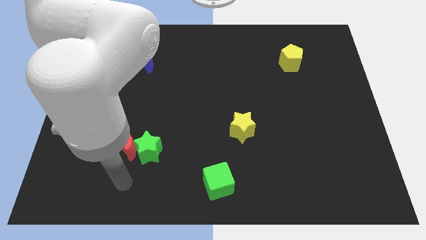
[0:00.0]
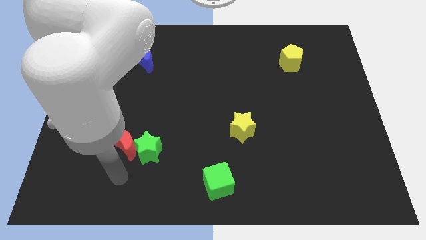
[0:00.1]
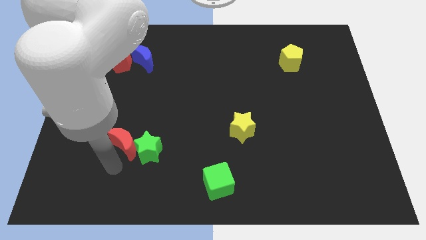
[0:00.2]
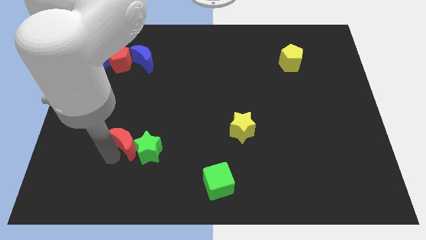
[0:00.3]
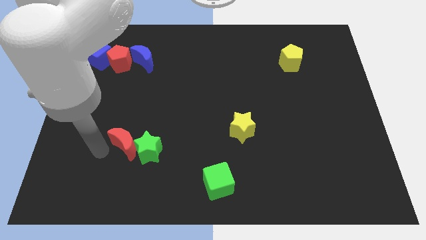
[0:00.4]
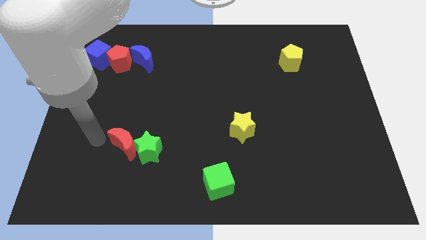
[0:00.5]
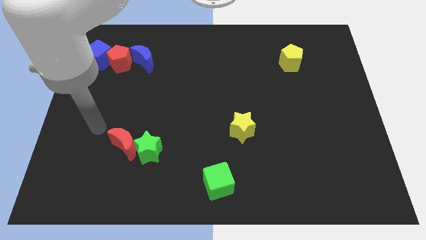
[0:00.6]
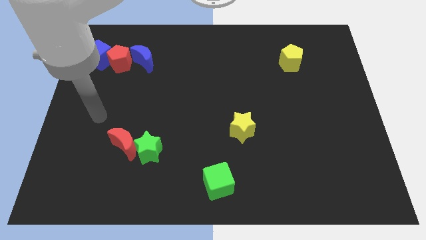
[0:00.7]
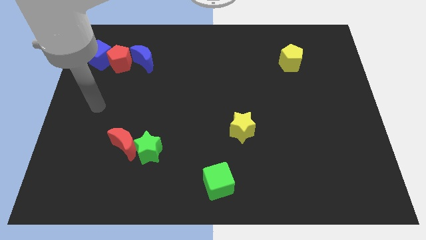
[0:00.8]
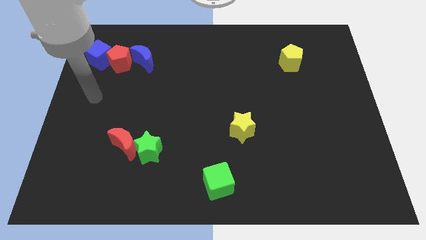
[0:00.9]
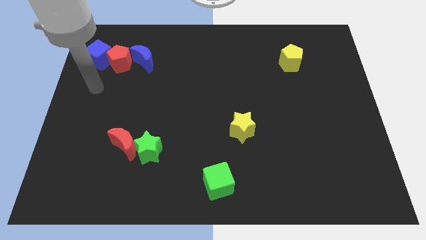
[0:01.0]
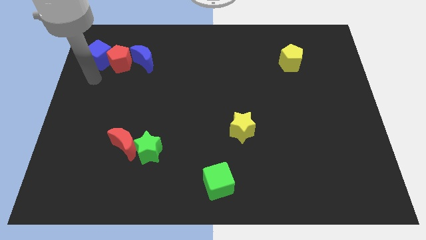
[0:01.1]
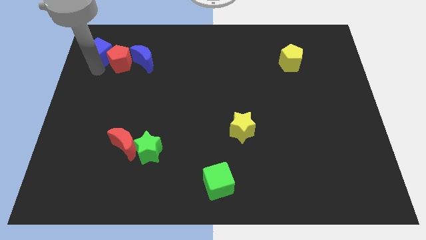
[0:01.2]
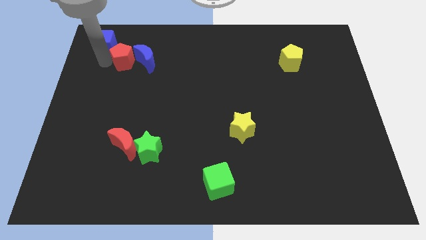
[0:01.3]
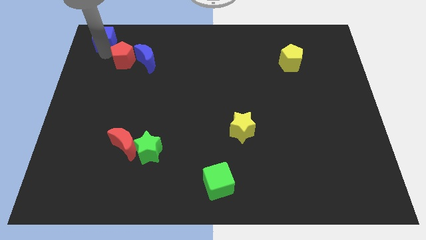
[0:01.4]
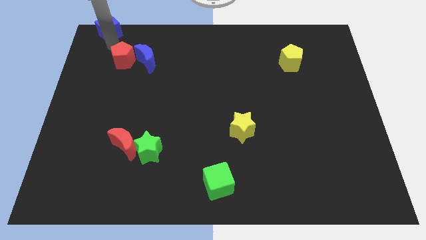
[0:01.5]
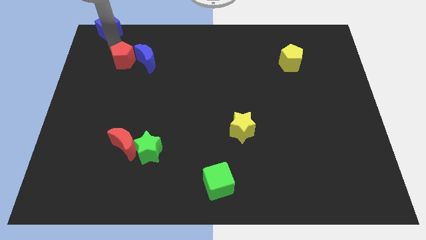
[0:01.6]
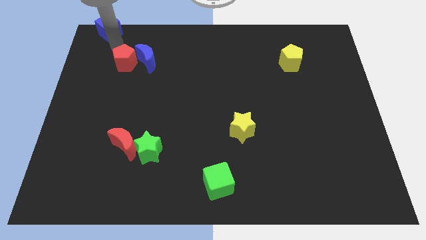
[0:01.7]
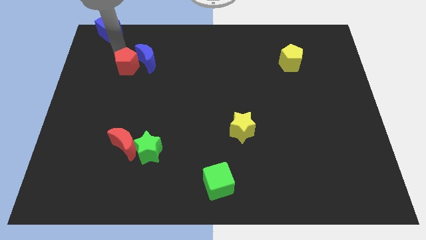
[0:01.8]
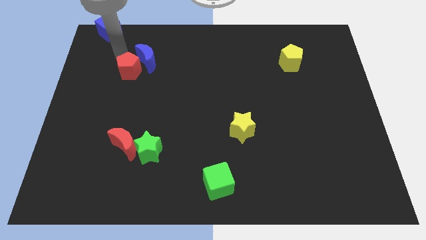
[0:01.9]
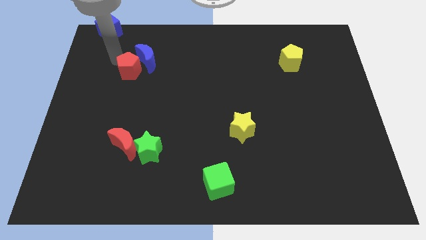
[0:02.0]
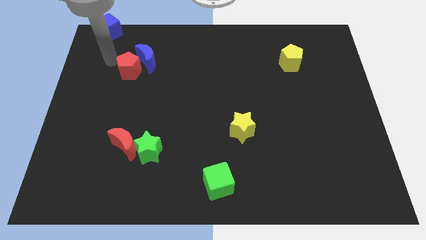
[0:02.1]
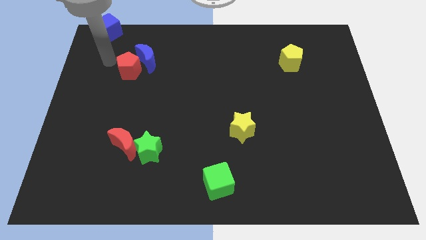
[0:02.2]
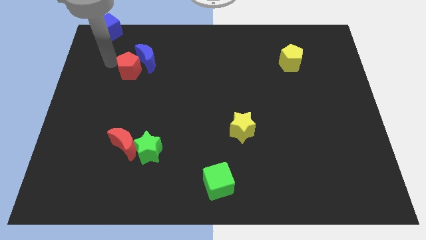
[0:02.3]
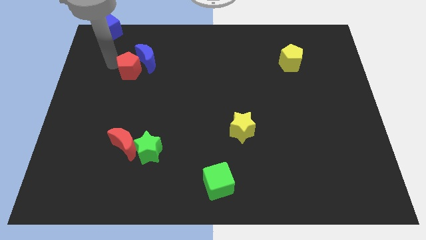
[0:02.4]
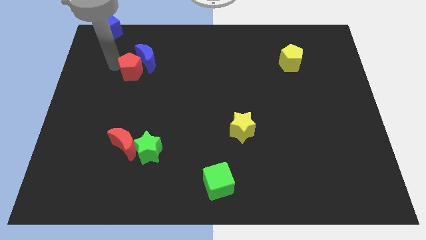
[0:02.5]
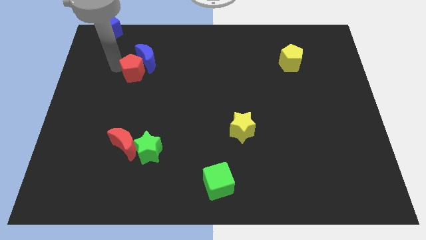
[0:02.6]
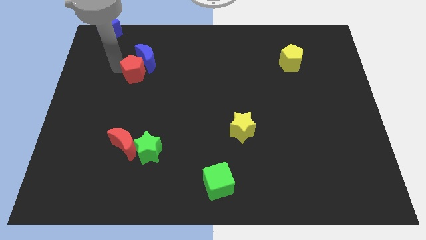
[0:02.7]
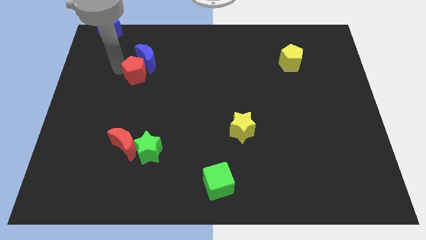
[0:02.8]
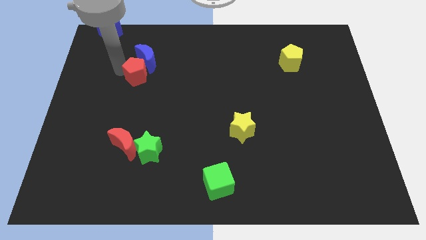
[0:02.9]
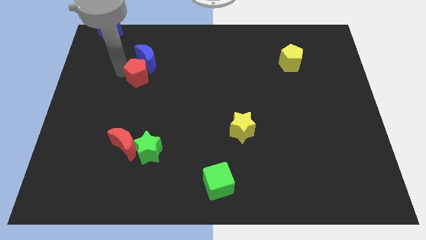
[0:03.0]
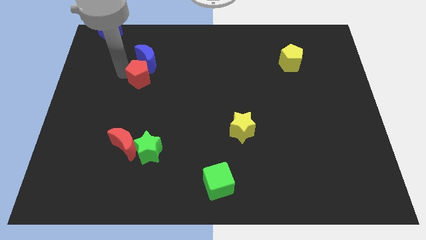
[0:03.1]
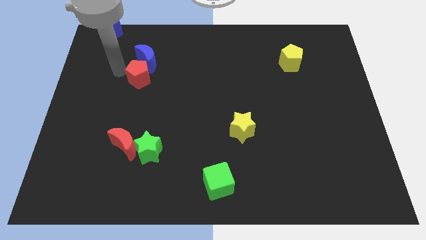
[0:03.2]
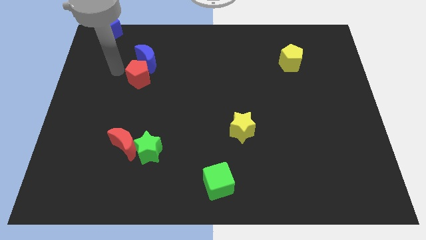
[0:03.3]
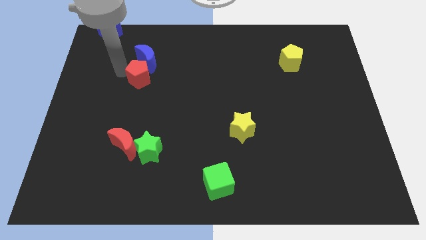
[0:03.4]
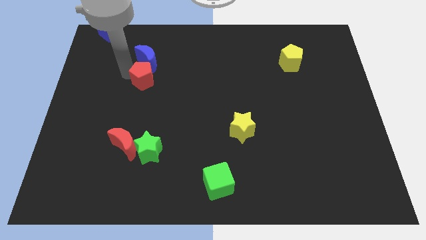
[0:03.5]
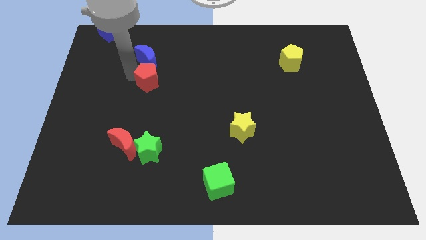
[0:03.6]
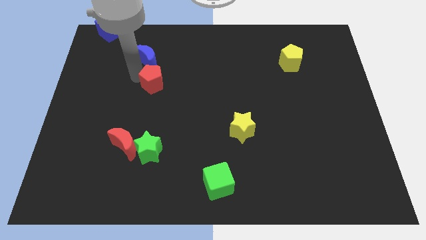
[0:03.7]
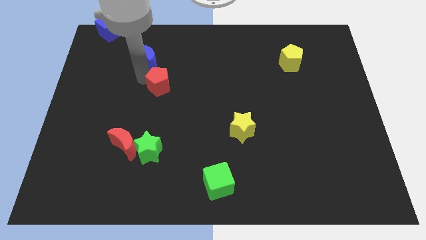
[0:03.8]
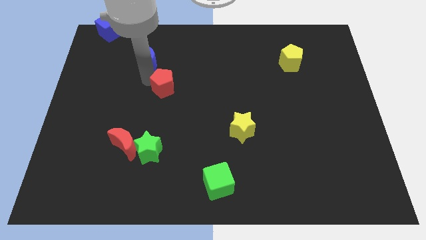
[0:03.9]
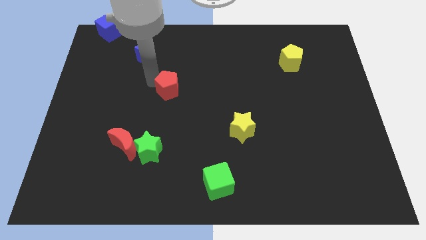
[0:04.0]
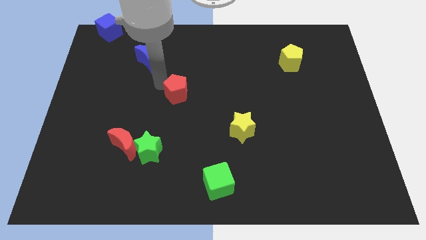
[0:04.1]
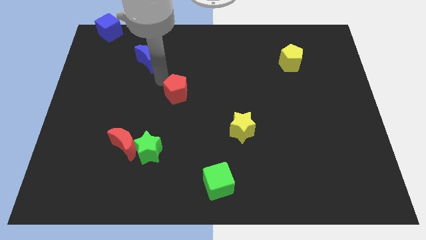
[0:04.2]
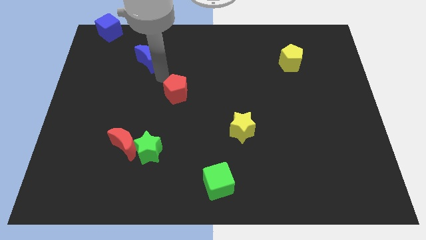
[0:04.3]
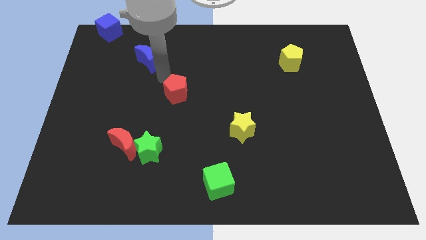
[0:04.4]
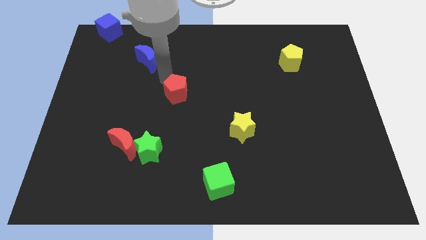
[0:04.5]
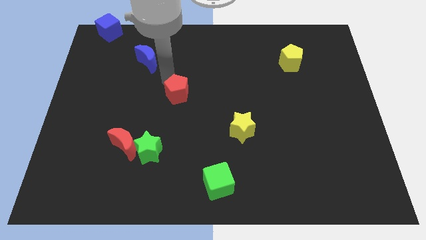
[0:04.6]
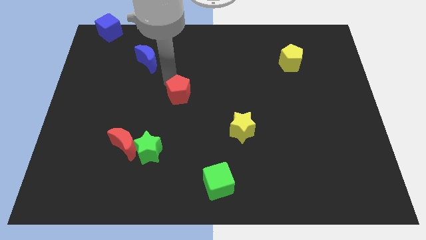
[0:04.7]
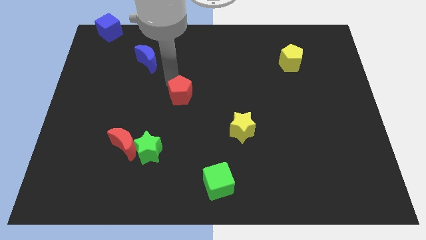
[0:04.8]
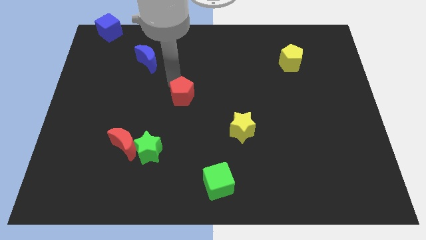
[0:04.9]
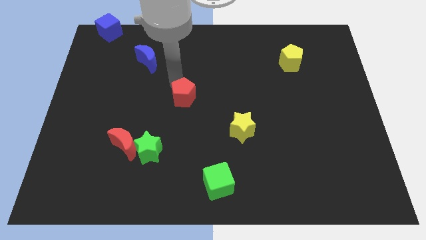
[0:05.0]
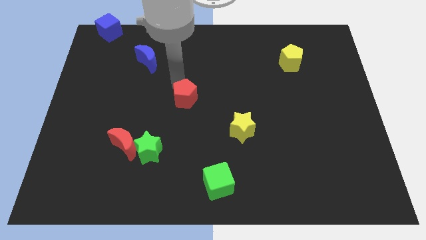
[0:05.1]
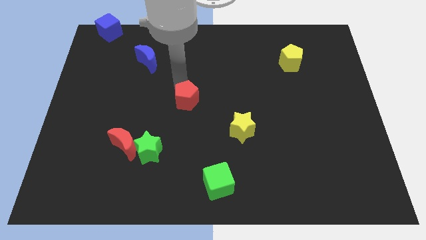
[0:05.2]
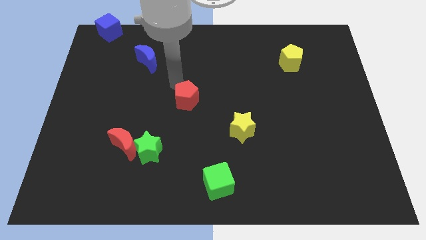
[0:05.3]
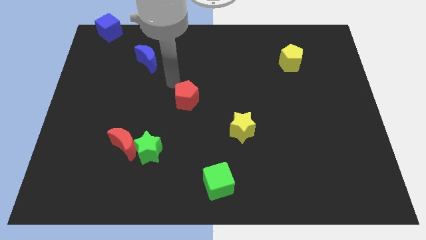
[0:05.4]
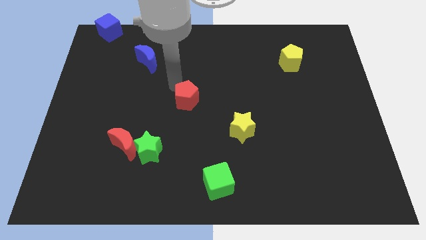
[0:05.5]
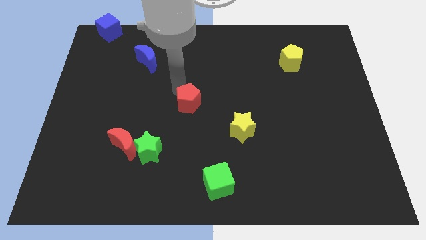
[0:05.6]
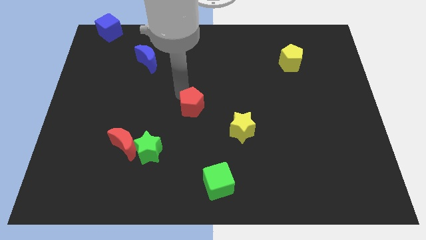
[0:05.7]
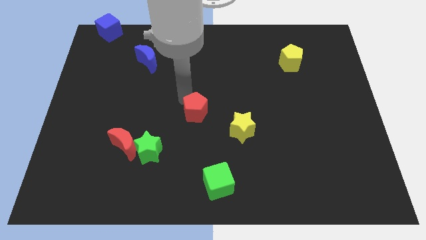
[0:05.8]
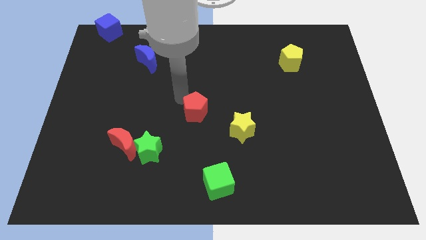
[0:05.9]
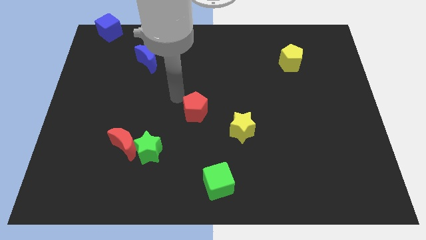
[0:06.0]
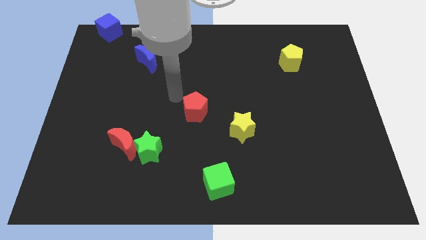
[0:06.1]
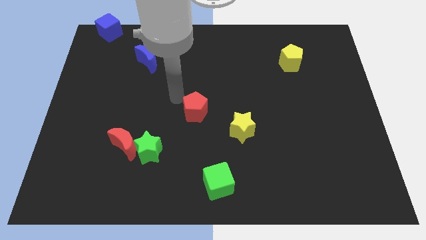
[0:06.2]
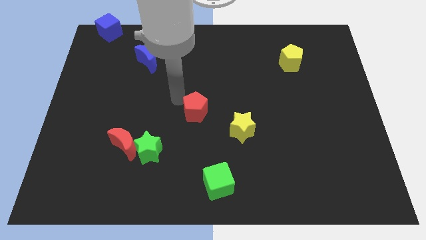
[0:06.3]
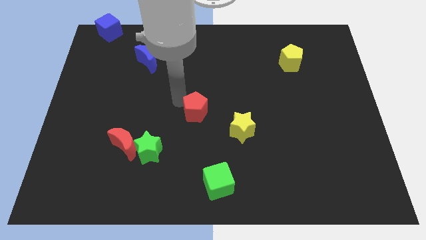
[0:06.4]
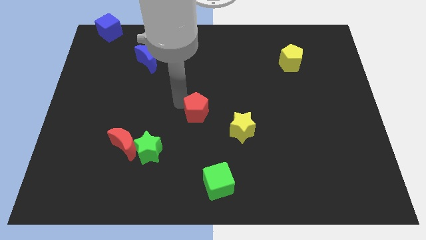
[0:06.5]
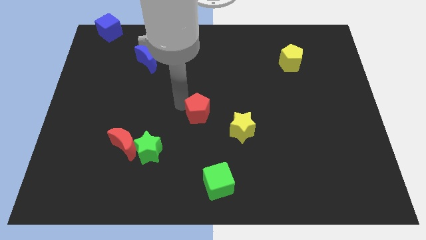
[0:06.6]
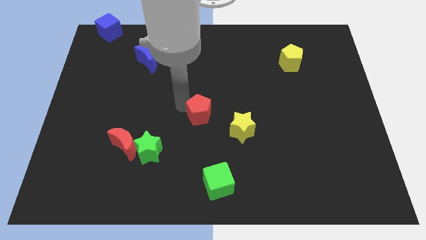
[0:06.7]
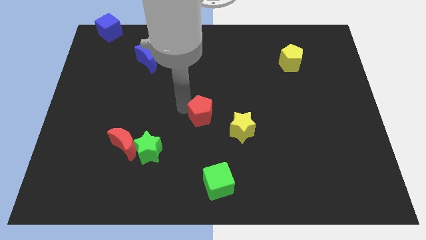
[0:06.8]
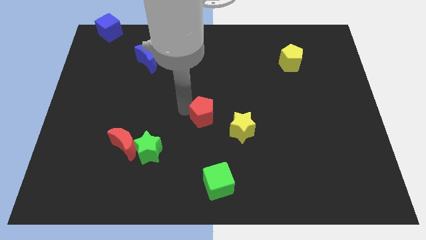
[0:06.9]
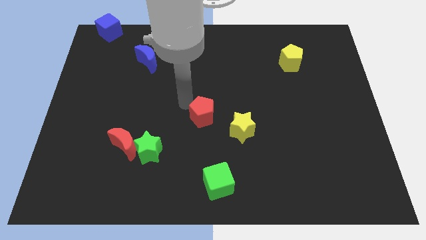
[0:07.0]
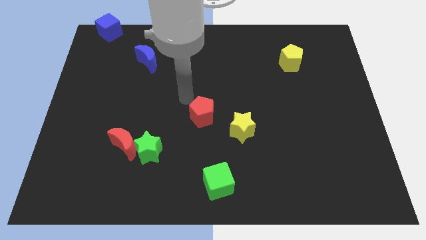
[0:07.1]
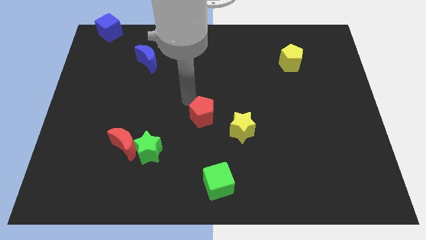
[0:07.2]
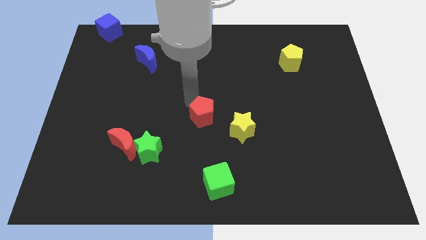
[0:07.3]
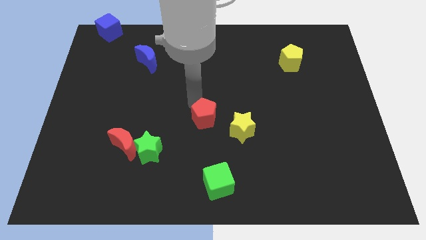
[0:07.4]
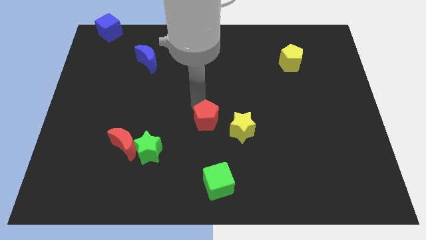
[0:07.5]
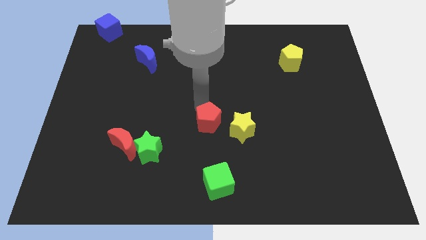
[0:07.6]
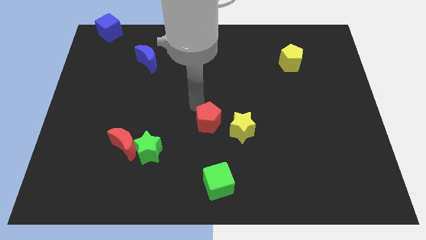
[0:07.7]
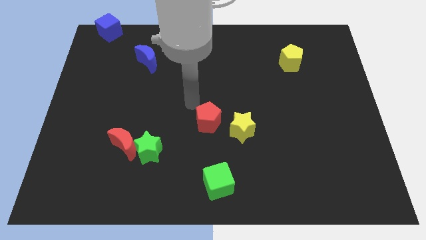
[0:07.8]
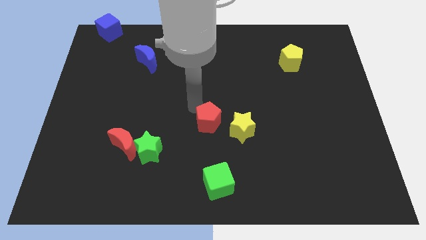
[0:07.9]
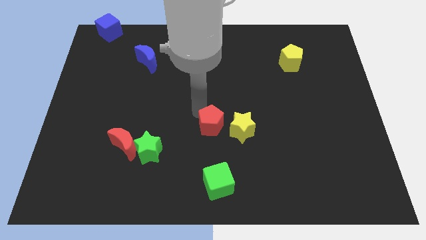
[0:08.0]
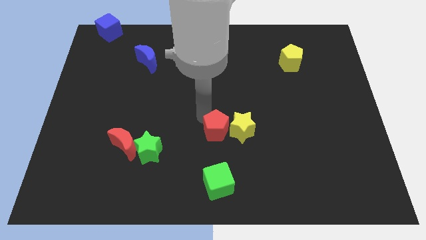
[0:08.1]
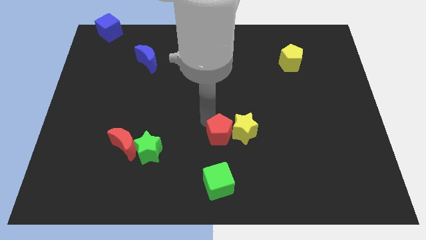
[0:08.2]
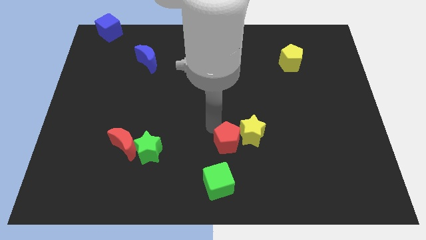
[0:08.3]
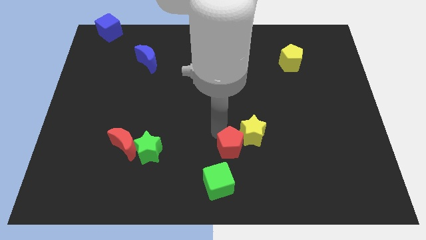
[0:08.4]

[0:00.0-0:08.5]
put the red pentagon to the top right of the green cube
